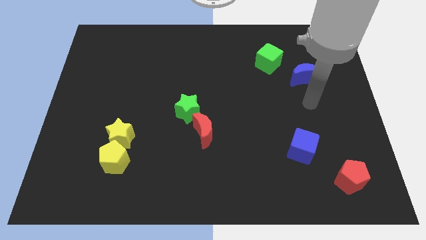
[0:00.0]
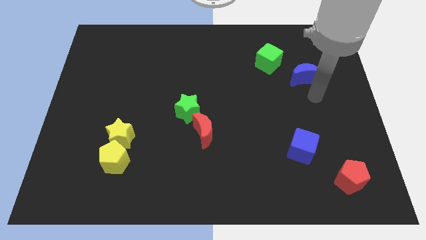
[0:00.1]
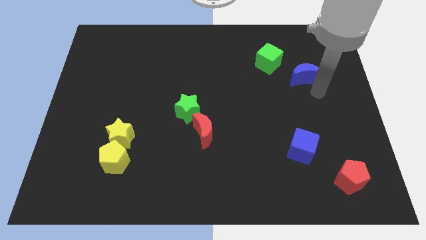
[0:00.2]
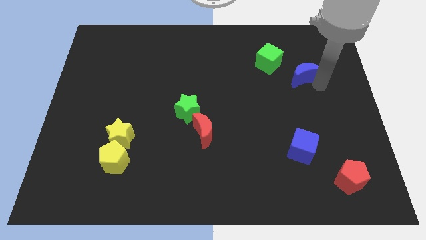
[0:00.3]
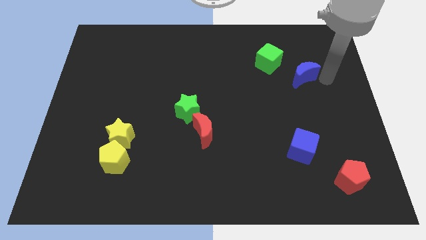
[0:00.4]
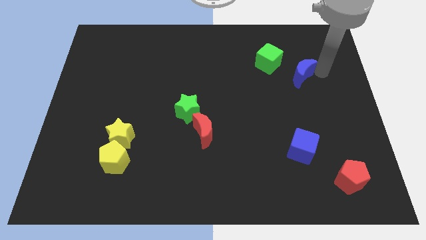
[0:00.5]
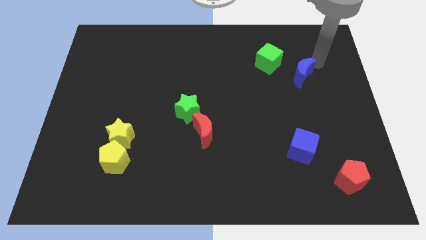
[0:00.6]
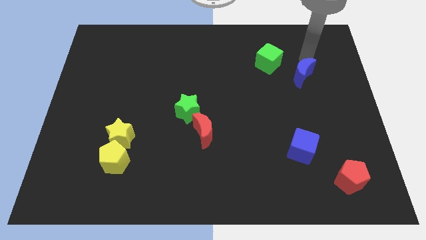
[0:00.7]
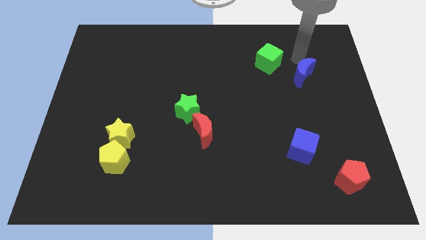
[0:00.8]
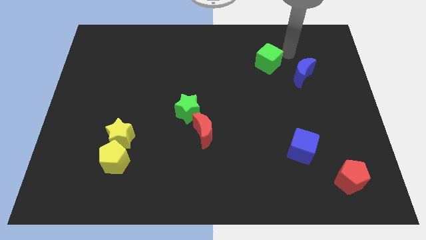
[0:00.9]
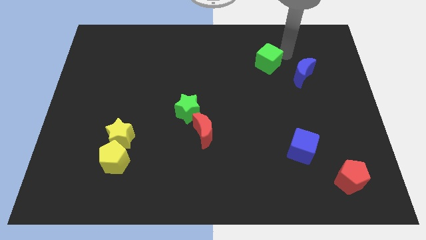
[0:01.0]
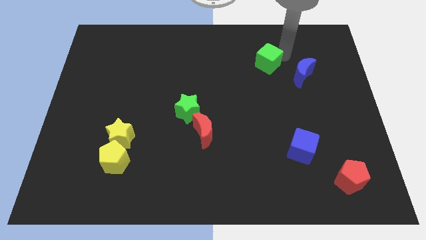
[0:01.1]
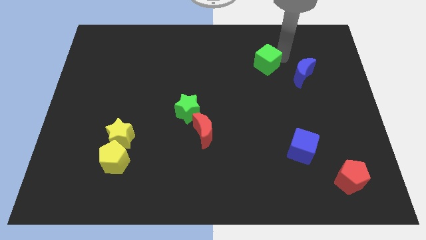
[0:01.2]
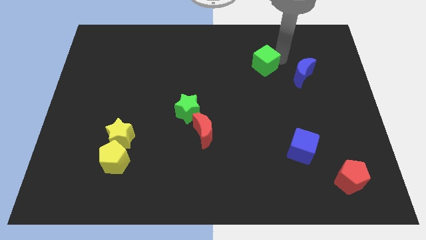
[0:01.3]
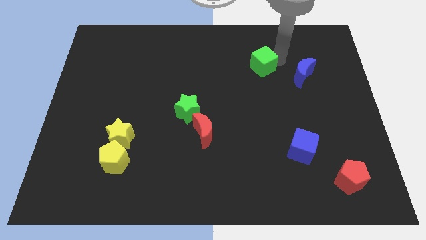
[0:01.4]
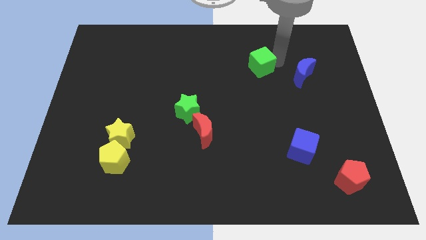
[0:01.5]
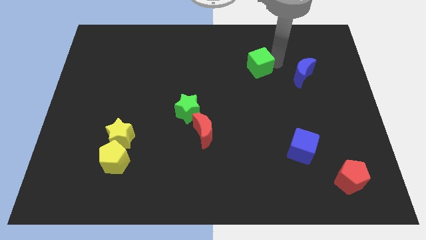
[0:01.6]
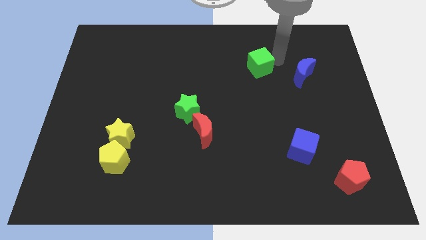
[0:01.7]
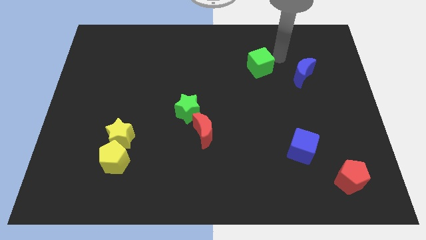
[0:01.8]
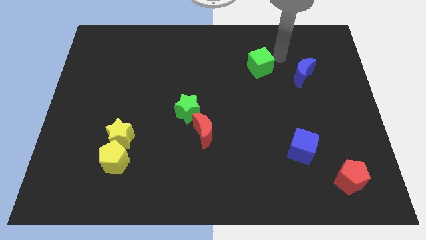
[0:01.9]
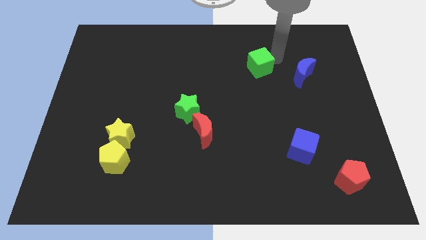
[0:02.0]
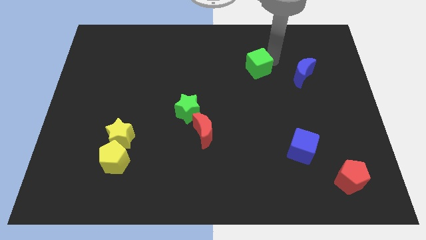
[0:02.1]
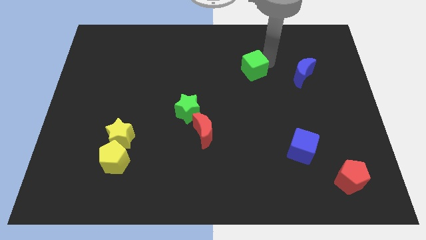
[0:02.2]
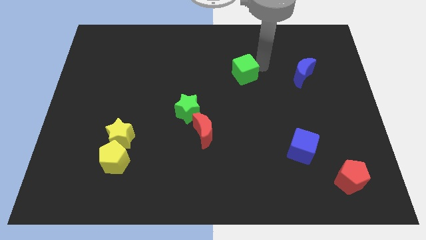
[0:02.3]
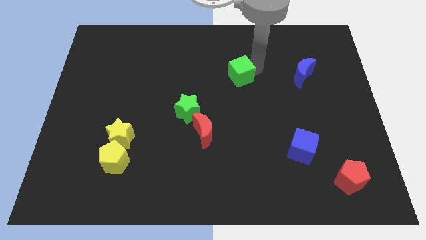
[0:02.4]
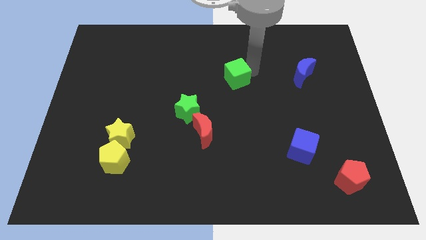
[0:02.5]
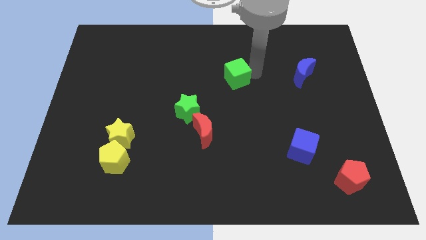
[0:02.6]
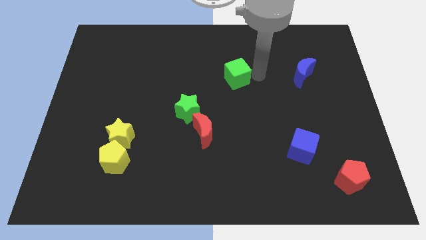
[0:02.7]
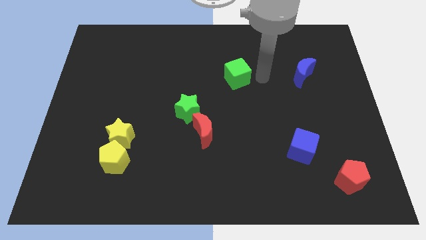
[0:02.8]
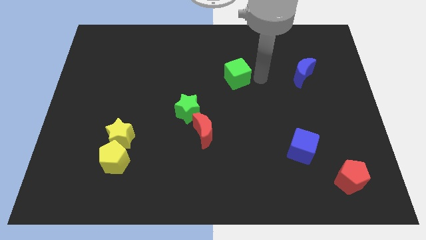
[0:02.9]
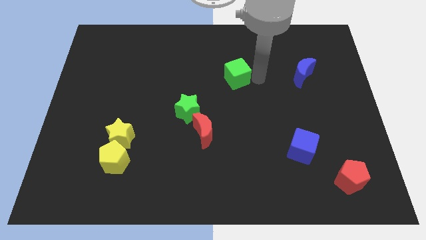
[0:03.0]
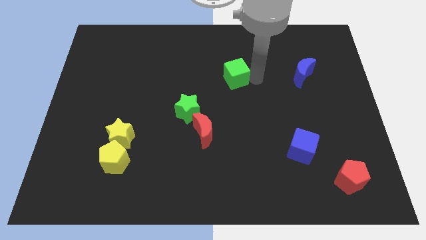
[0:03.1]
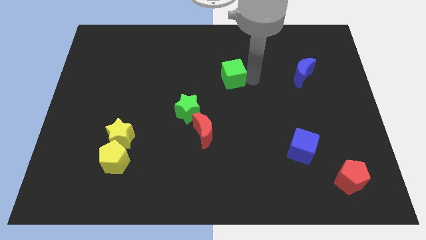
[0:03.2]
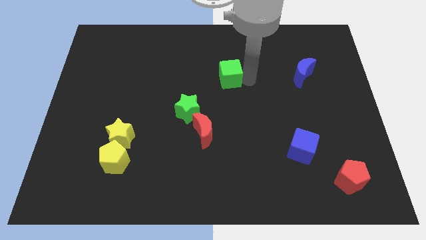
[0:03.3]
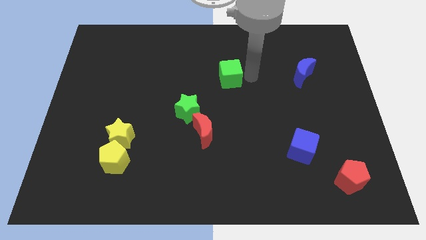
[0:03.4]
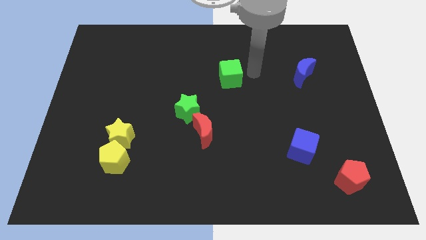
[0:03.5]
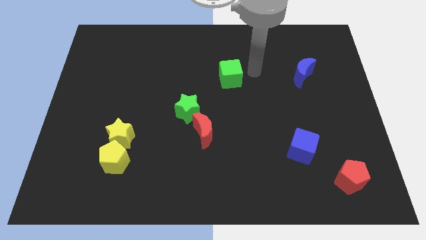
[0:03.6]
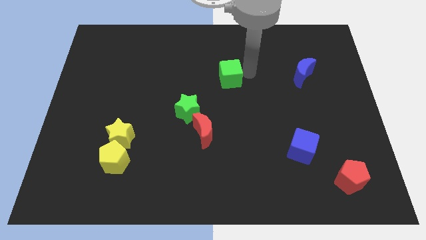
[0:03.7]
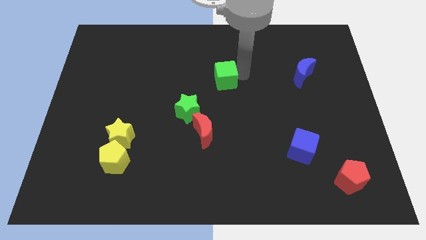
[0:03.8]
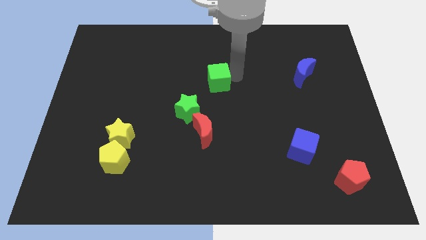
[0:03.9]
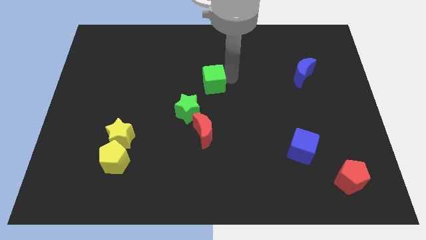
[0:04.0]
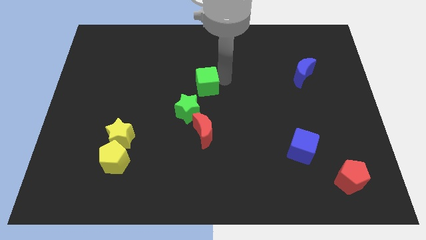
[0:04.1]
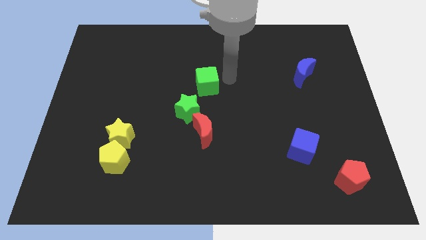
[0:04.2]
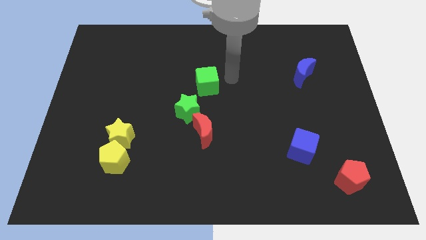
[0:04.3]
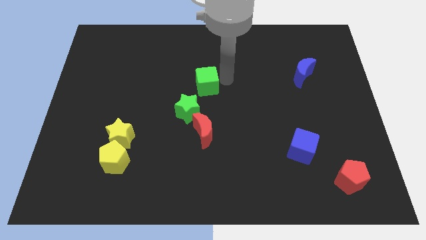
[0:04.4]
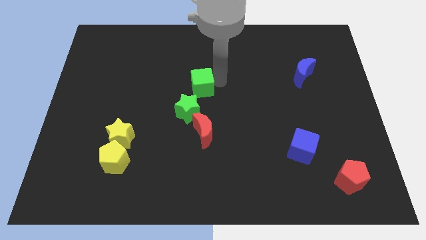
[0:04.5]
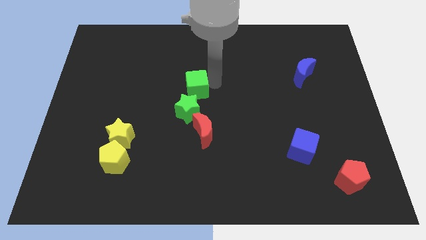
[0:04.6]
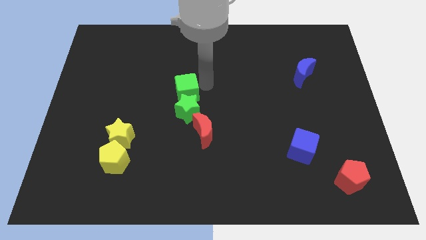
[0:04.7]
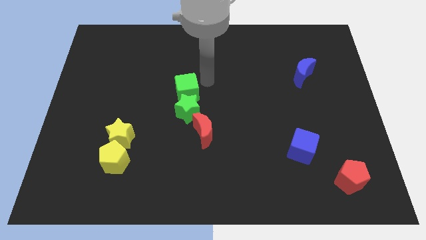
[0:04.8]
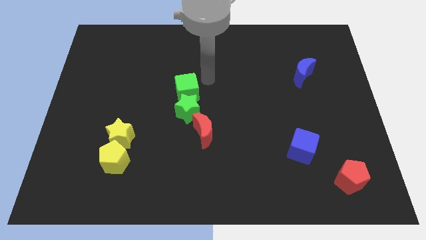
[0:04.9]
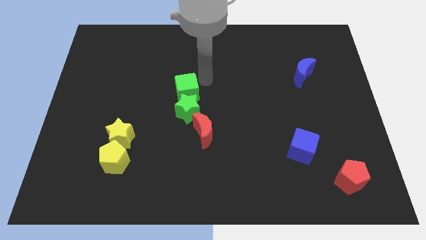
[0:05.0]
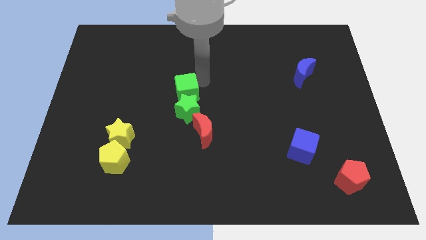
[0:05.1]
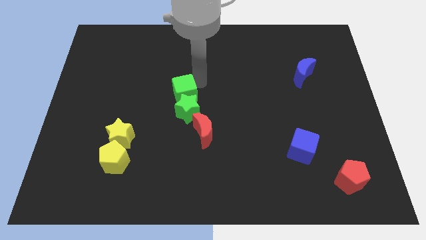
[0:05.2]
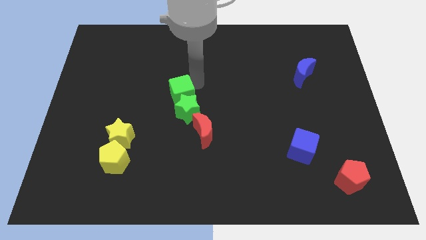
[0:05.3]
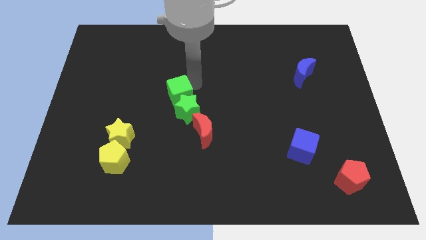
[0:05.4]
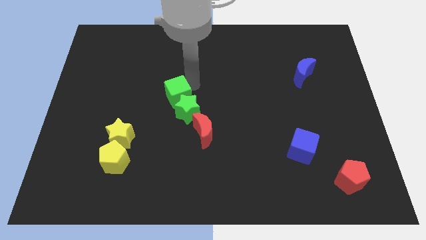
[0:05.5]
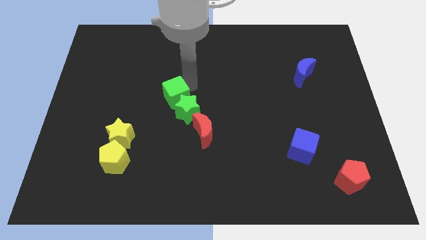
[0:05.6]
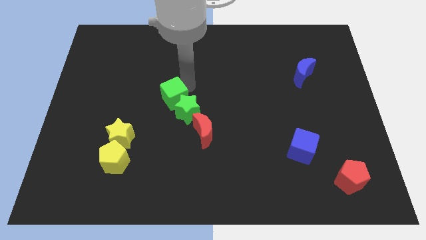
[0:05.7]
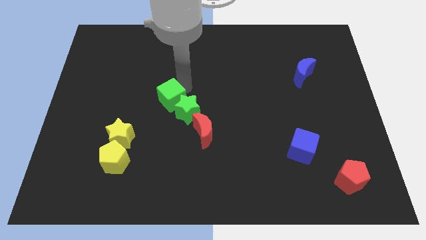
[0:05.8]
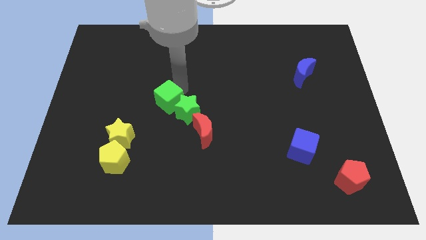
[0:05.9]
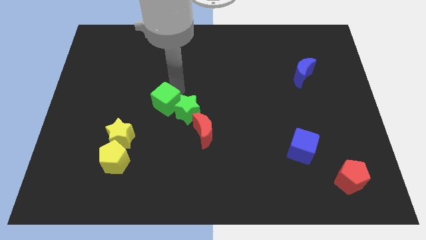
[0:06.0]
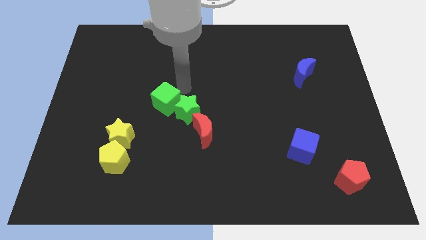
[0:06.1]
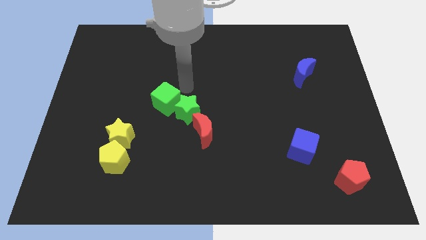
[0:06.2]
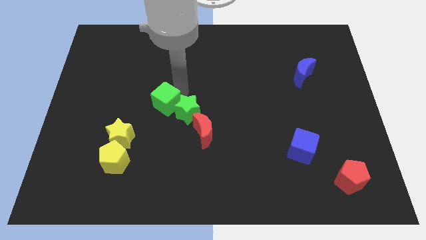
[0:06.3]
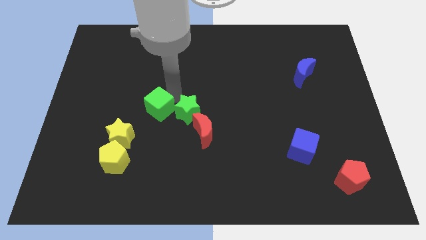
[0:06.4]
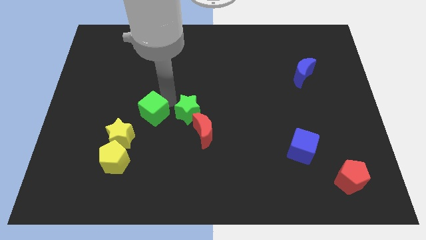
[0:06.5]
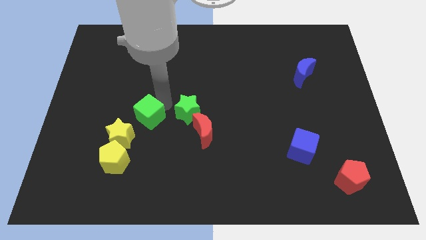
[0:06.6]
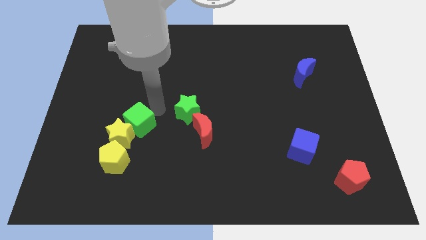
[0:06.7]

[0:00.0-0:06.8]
slide the green cube to the yellow star
